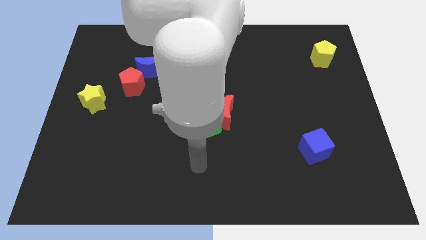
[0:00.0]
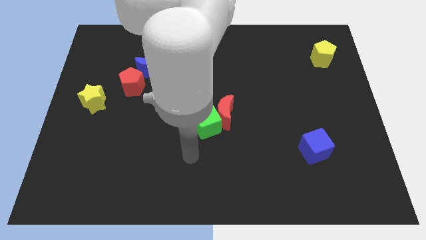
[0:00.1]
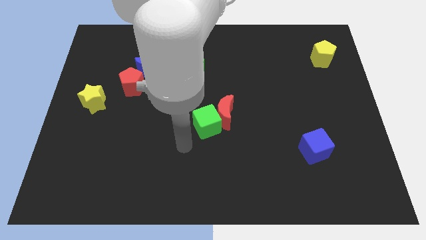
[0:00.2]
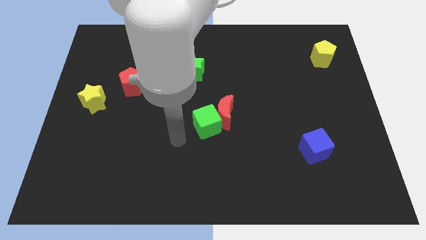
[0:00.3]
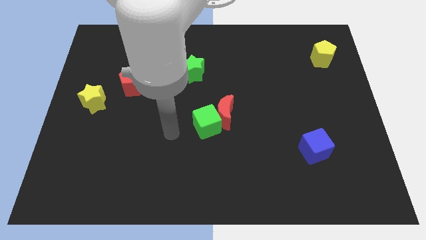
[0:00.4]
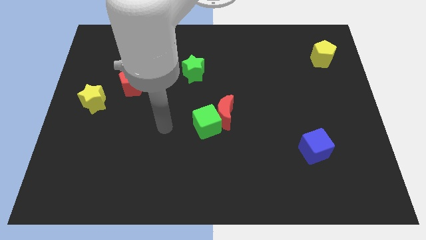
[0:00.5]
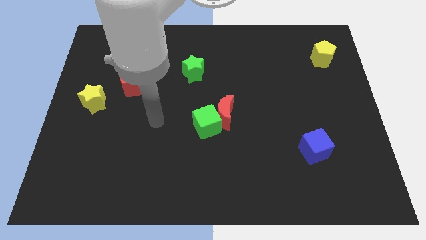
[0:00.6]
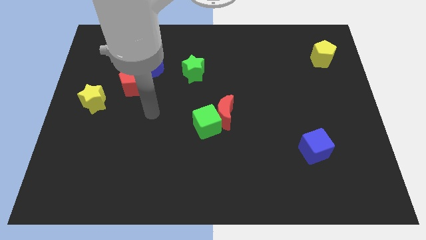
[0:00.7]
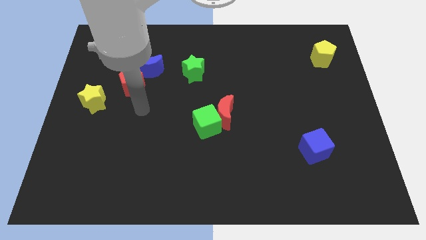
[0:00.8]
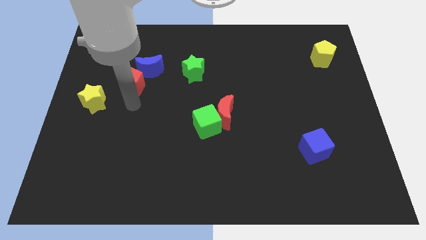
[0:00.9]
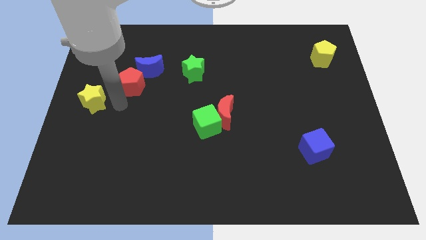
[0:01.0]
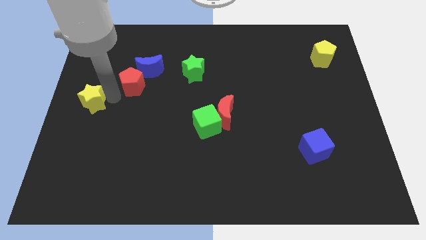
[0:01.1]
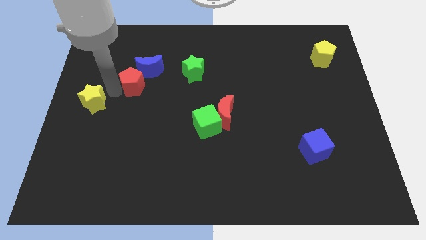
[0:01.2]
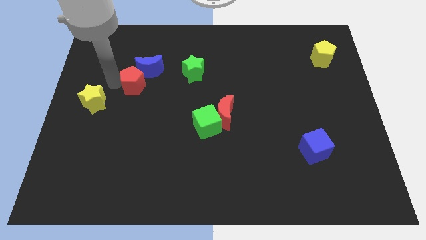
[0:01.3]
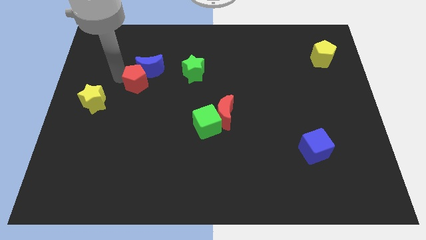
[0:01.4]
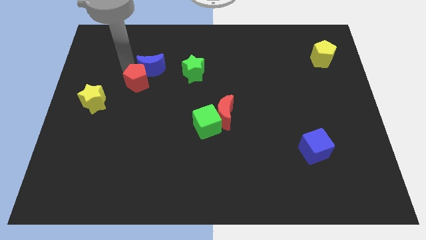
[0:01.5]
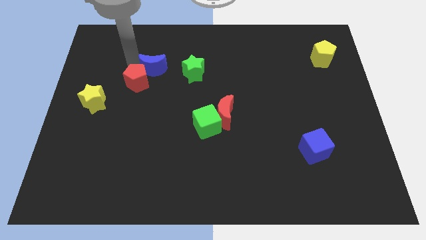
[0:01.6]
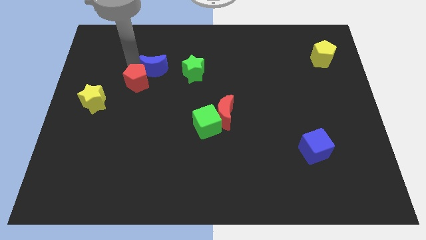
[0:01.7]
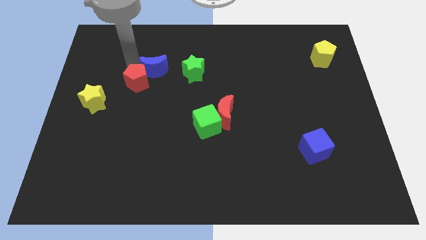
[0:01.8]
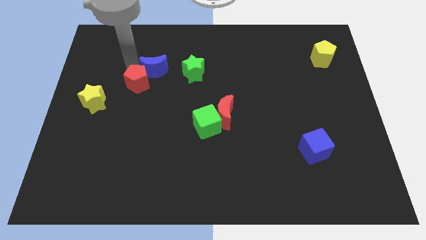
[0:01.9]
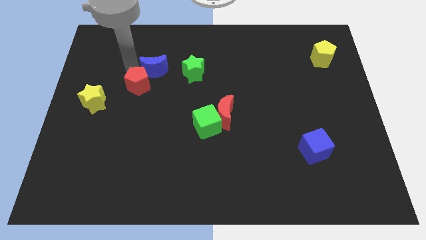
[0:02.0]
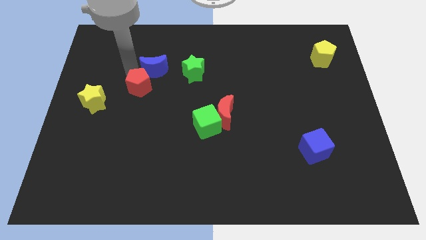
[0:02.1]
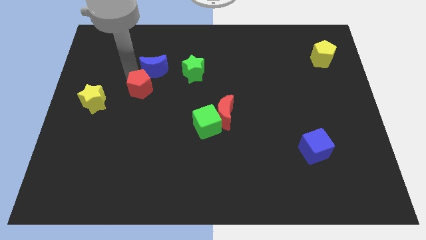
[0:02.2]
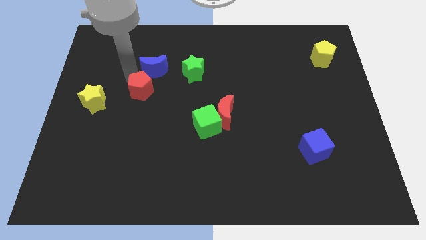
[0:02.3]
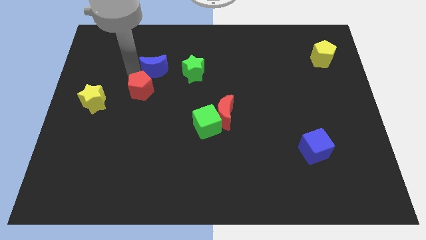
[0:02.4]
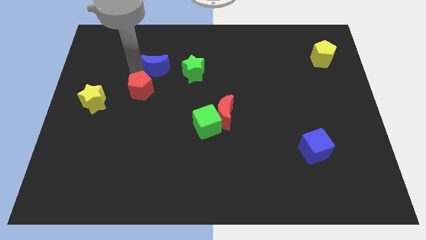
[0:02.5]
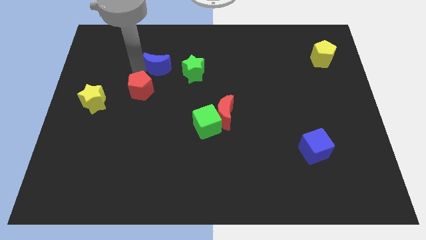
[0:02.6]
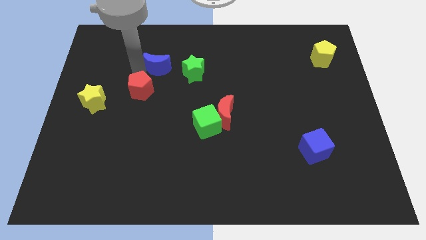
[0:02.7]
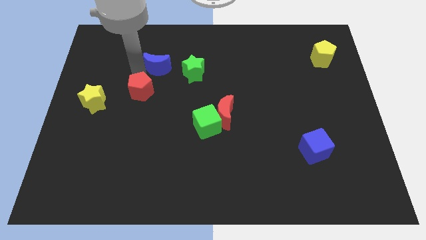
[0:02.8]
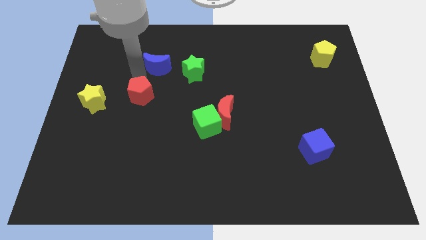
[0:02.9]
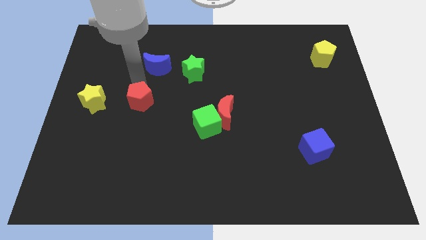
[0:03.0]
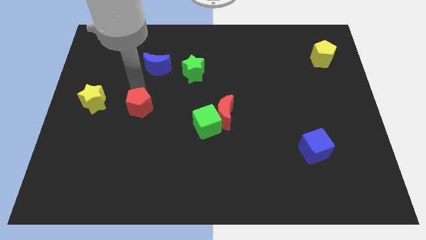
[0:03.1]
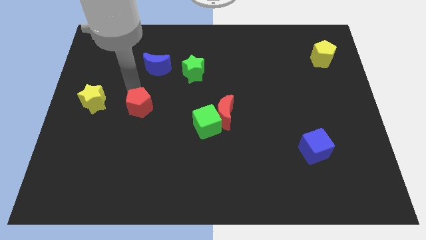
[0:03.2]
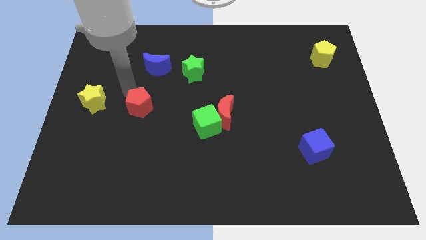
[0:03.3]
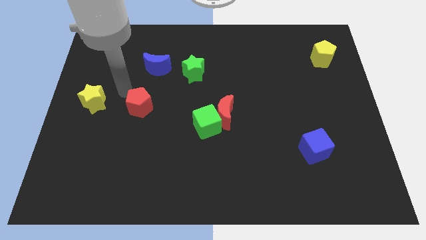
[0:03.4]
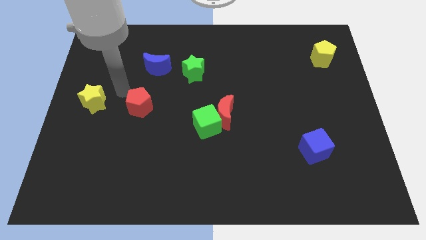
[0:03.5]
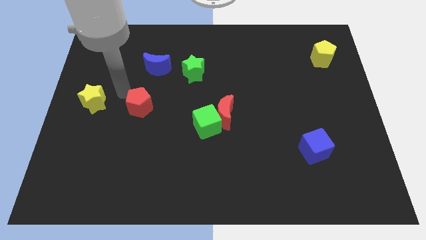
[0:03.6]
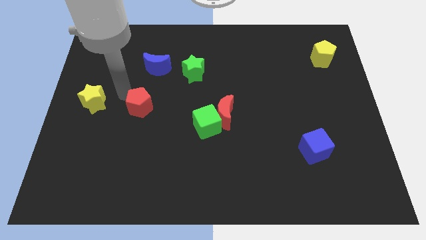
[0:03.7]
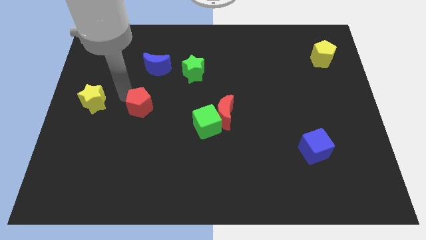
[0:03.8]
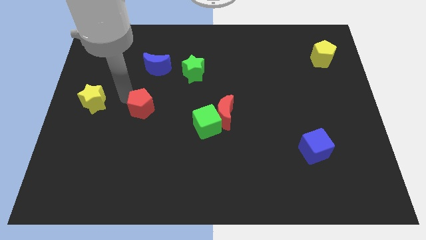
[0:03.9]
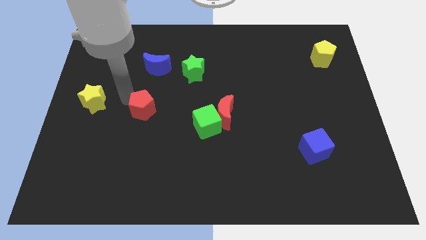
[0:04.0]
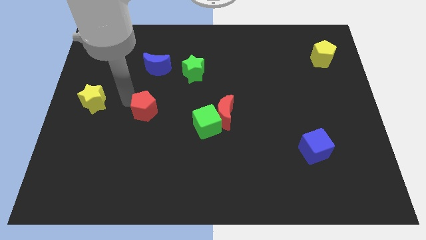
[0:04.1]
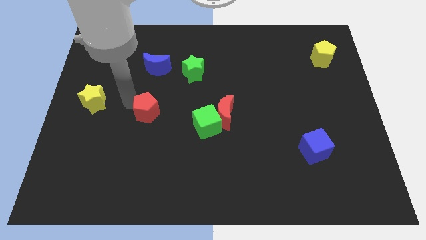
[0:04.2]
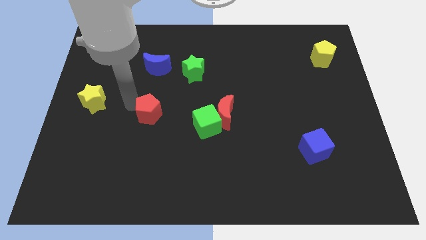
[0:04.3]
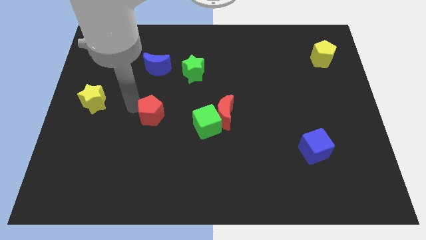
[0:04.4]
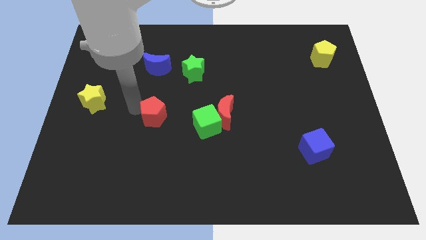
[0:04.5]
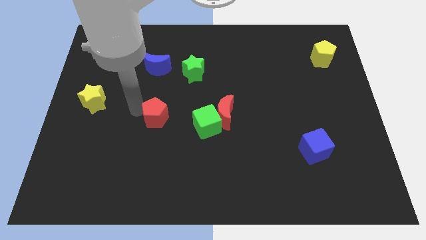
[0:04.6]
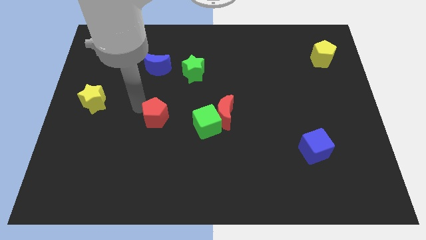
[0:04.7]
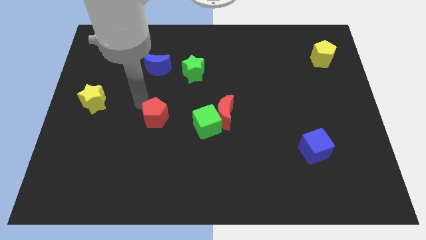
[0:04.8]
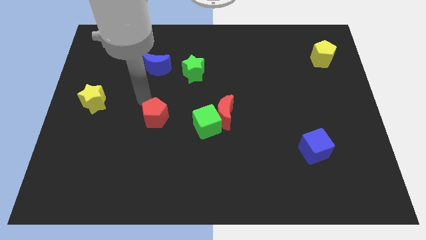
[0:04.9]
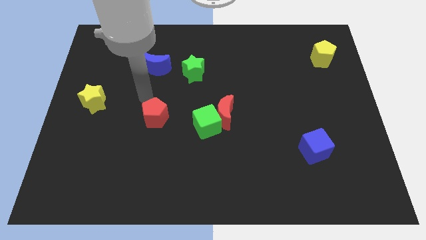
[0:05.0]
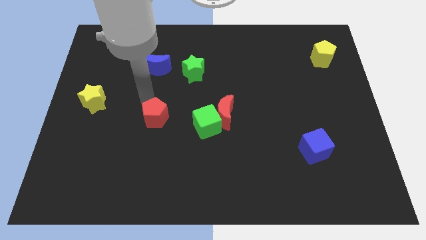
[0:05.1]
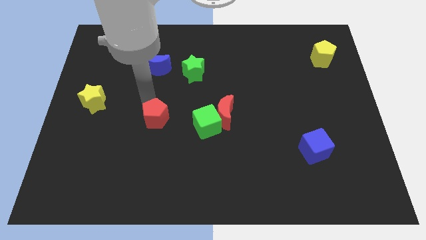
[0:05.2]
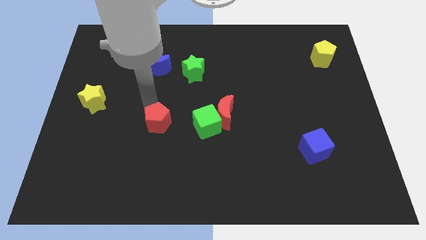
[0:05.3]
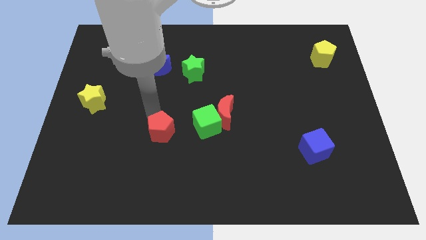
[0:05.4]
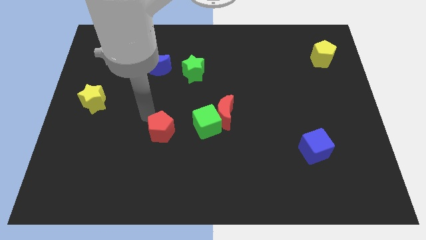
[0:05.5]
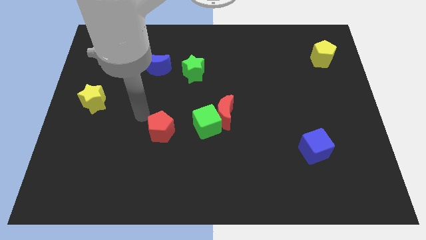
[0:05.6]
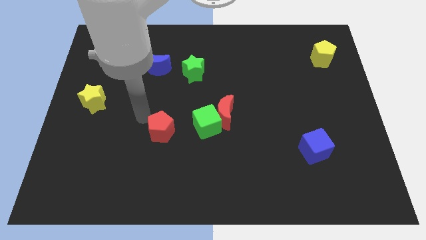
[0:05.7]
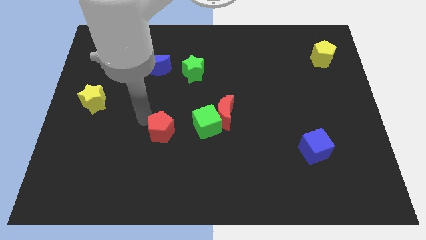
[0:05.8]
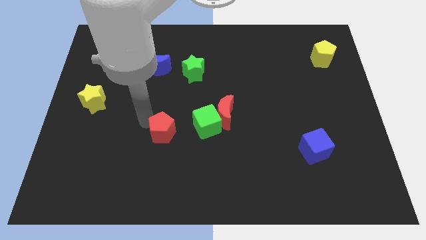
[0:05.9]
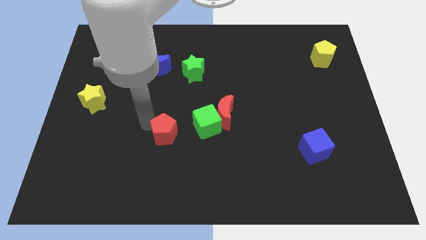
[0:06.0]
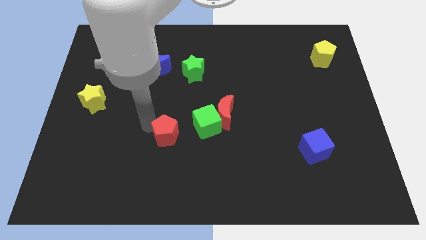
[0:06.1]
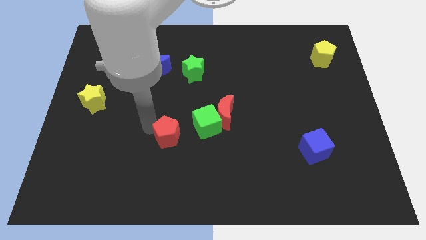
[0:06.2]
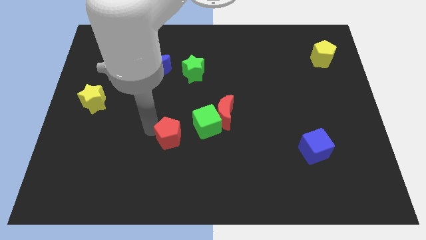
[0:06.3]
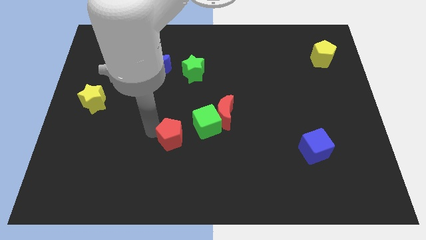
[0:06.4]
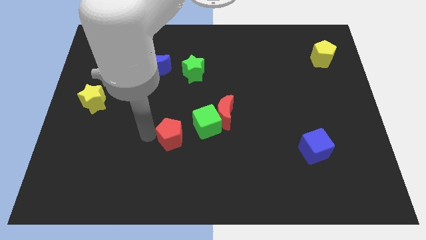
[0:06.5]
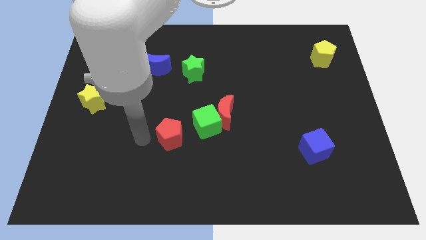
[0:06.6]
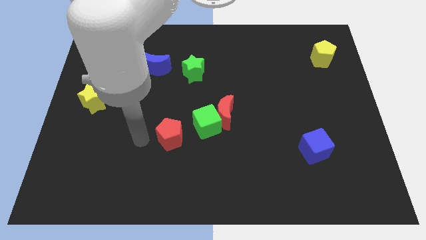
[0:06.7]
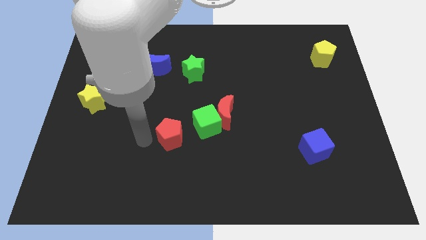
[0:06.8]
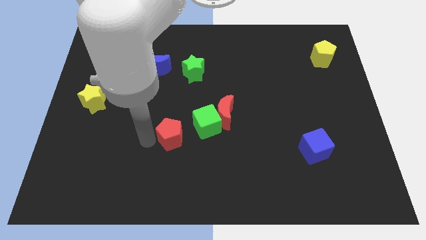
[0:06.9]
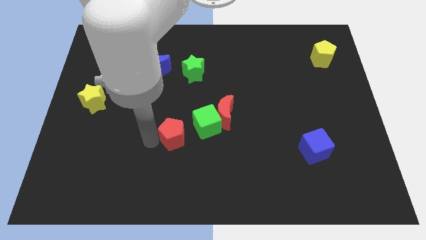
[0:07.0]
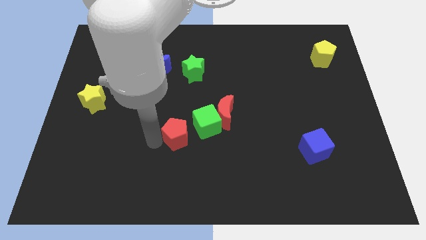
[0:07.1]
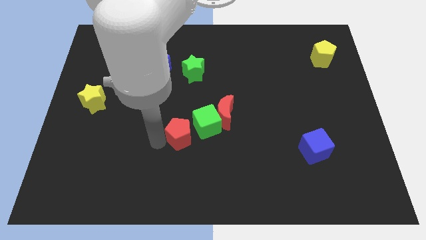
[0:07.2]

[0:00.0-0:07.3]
put the red pentagon to the bottom left side of the red moon
